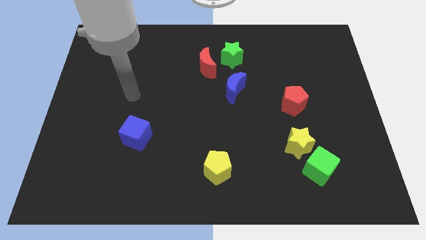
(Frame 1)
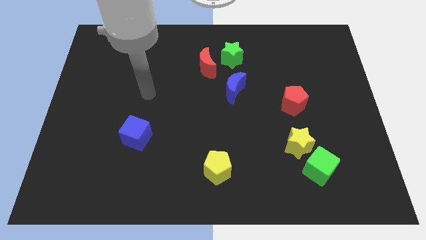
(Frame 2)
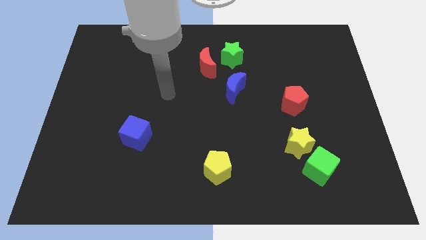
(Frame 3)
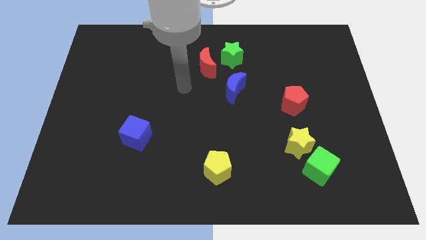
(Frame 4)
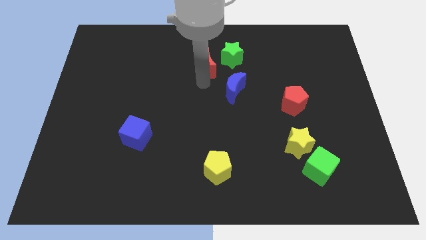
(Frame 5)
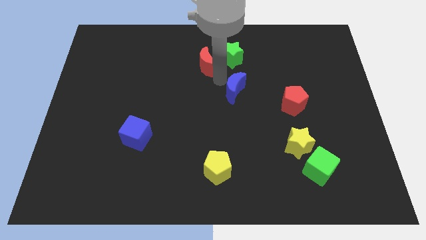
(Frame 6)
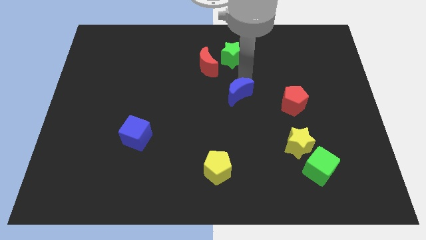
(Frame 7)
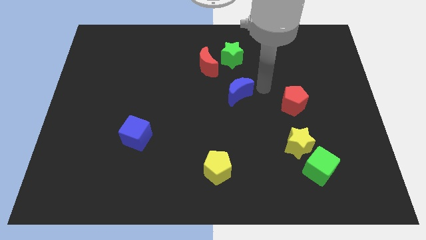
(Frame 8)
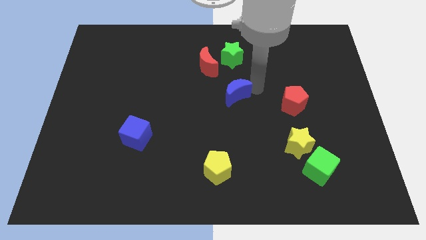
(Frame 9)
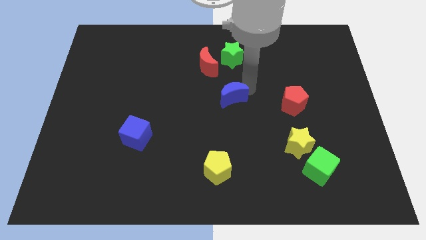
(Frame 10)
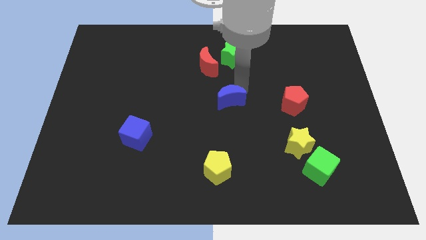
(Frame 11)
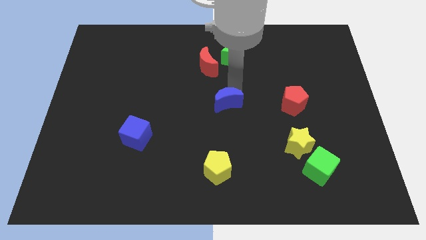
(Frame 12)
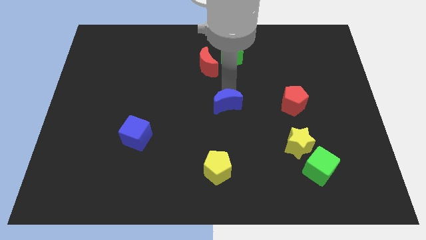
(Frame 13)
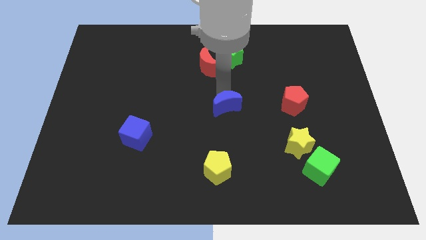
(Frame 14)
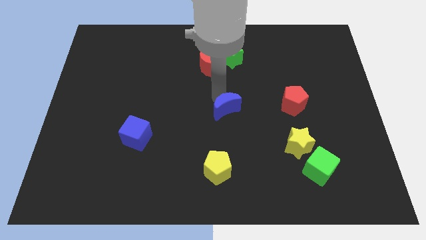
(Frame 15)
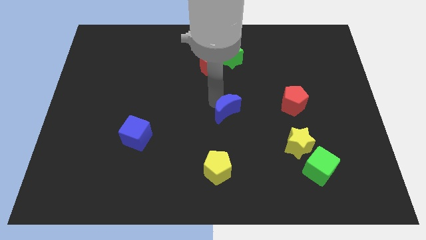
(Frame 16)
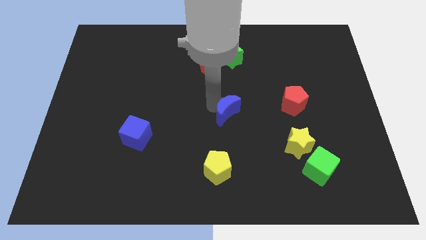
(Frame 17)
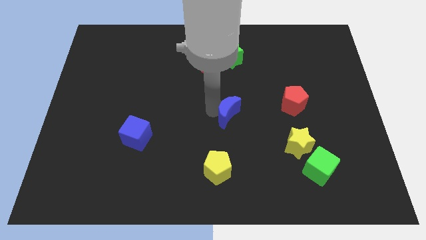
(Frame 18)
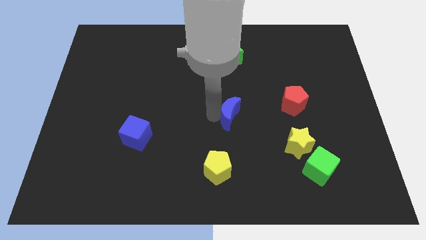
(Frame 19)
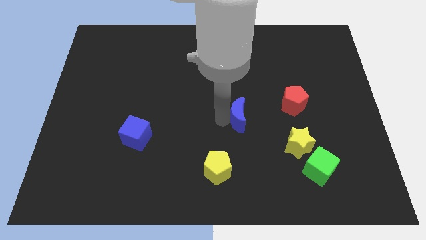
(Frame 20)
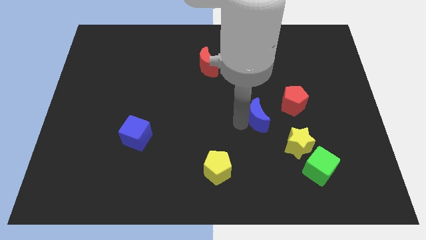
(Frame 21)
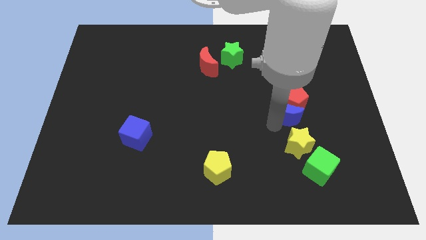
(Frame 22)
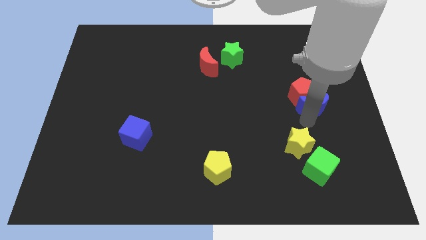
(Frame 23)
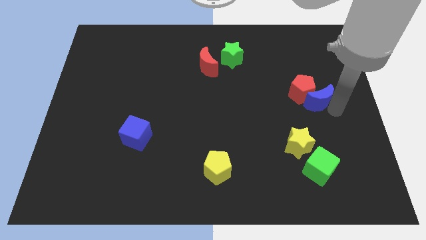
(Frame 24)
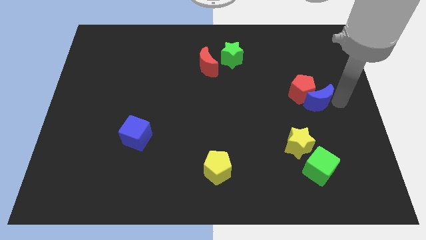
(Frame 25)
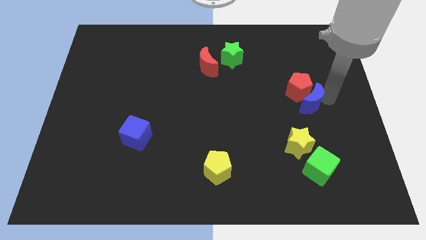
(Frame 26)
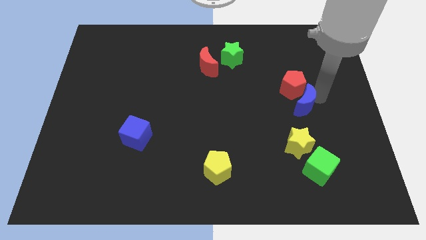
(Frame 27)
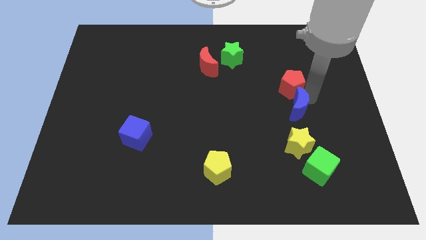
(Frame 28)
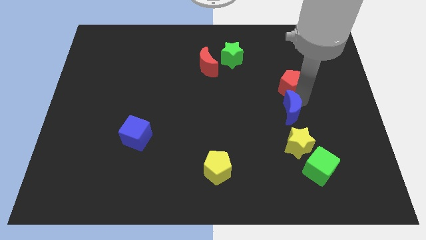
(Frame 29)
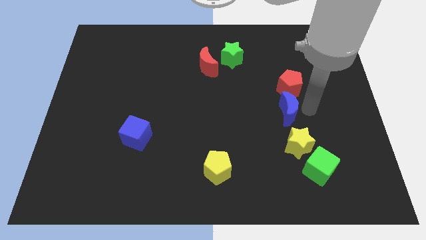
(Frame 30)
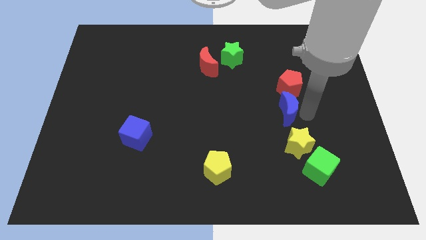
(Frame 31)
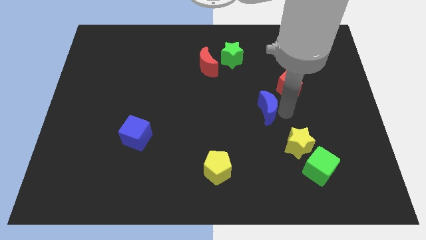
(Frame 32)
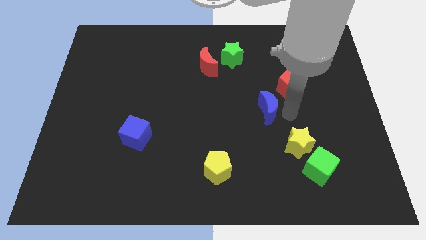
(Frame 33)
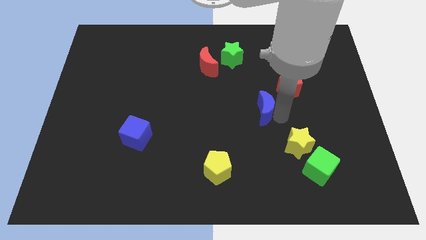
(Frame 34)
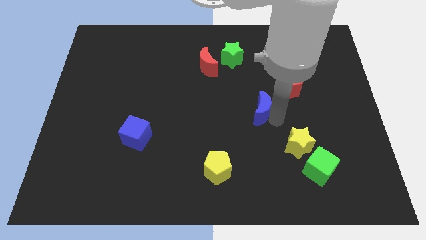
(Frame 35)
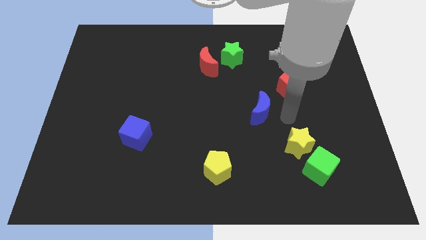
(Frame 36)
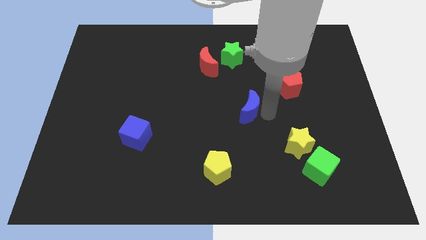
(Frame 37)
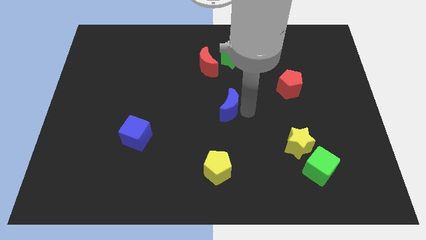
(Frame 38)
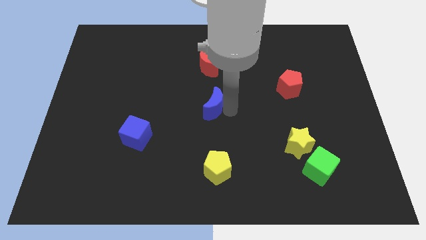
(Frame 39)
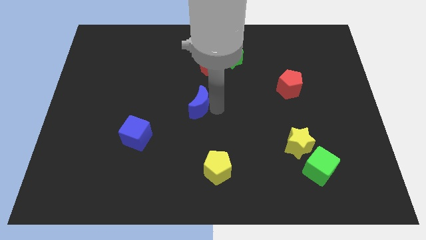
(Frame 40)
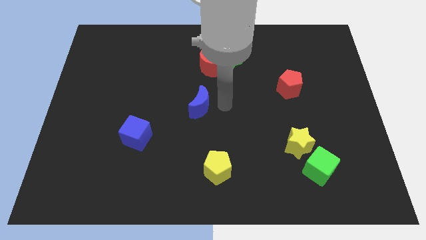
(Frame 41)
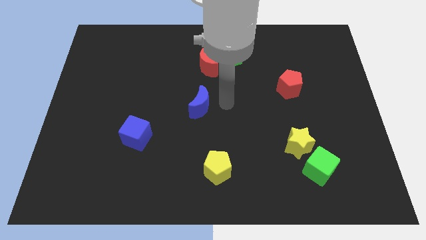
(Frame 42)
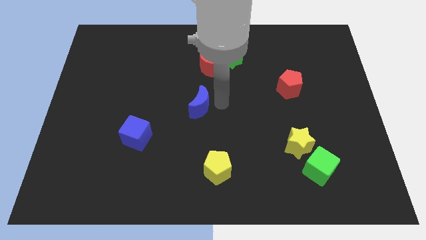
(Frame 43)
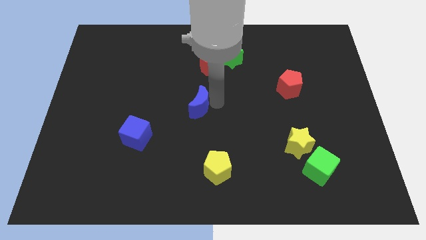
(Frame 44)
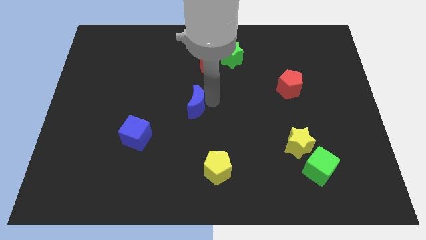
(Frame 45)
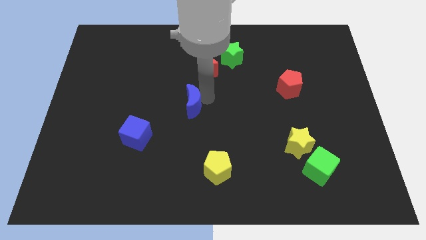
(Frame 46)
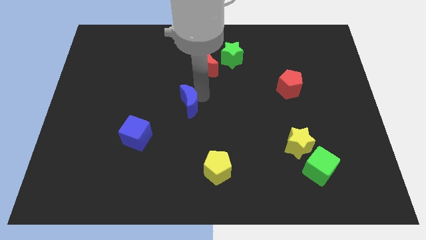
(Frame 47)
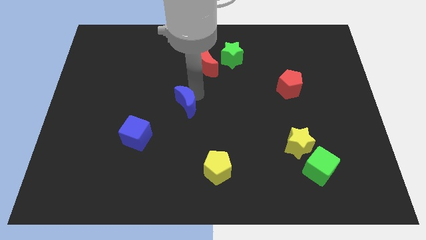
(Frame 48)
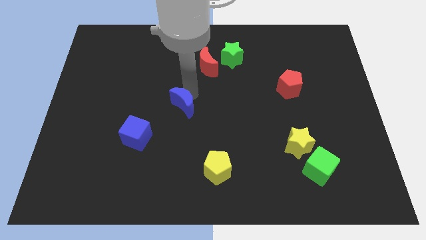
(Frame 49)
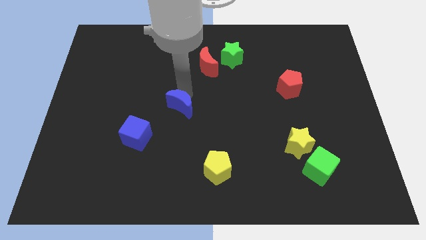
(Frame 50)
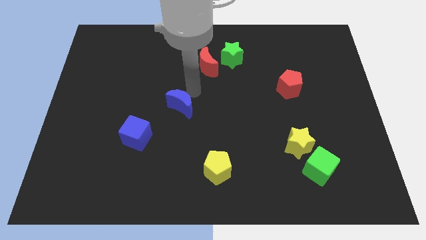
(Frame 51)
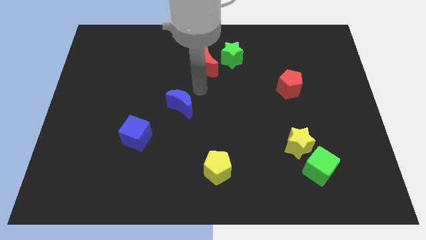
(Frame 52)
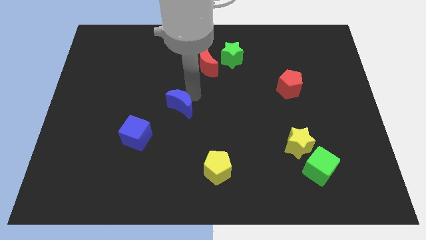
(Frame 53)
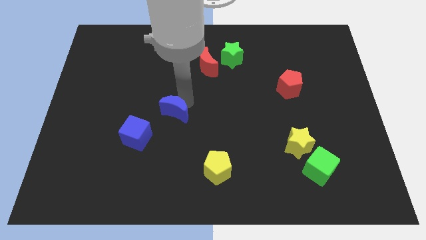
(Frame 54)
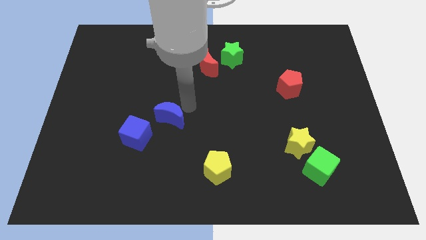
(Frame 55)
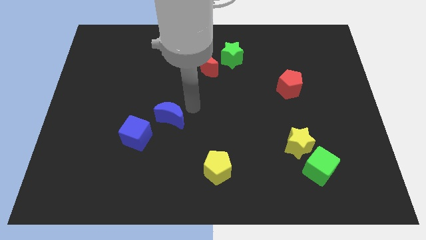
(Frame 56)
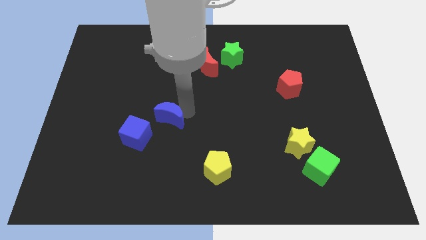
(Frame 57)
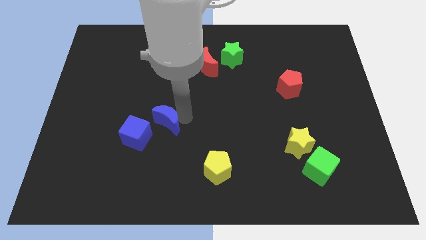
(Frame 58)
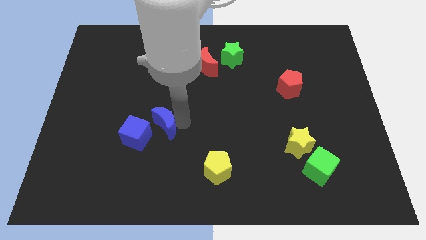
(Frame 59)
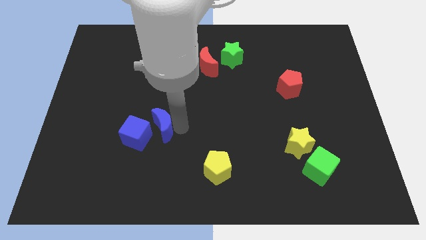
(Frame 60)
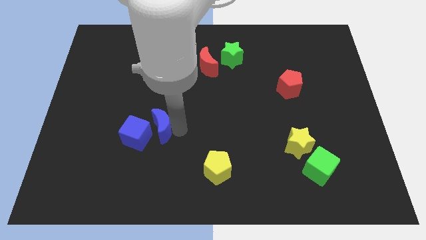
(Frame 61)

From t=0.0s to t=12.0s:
push the blue moon next to the blue cube

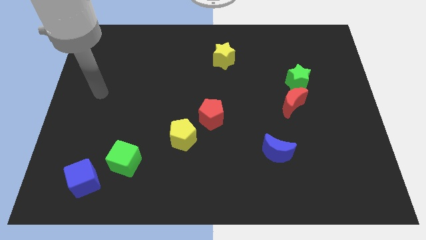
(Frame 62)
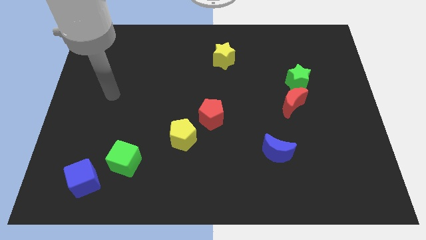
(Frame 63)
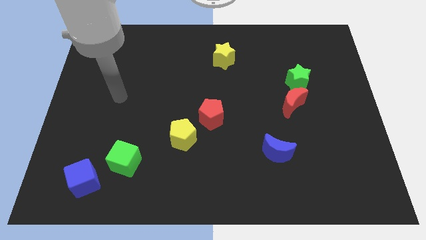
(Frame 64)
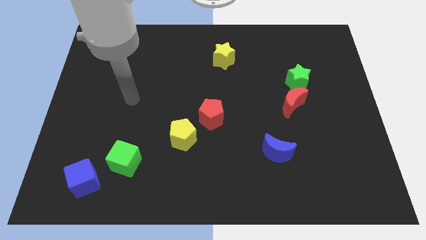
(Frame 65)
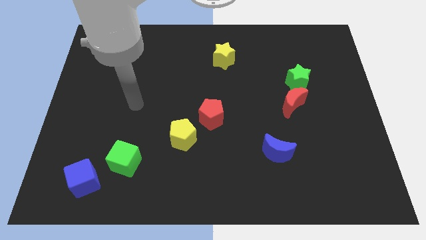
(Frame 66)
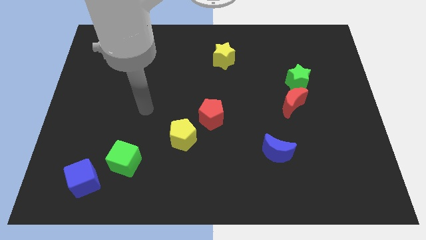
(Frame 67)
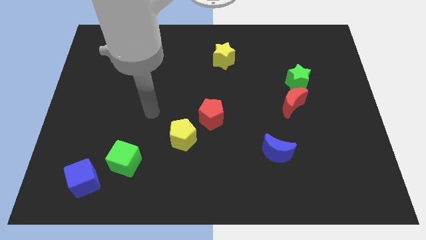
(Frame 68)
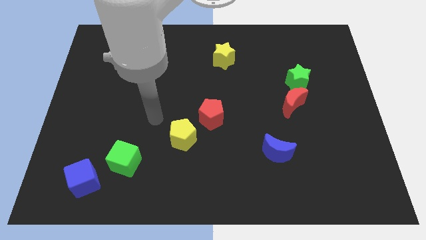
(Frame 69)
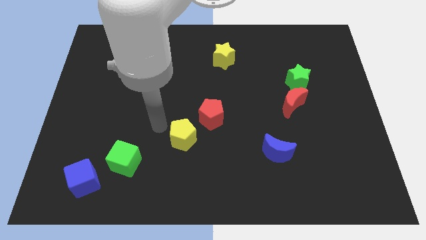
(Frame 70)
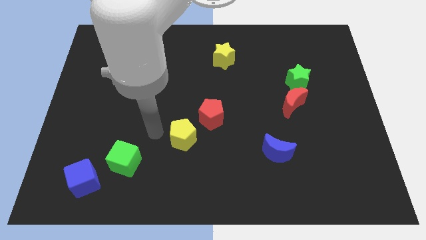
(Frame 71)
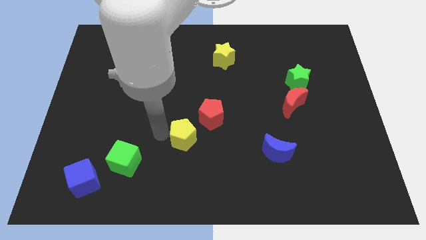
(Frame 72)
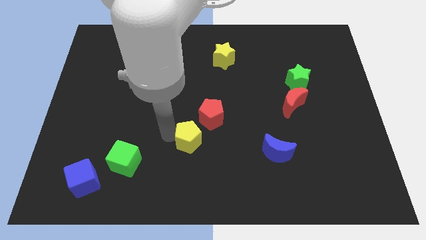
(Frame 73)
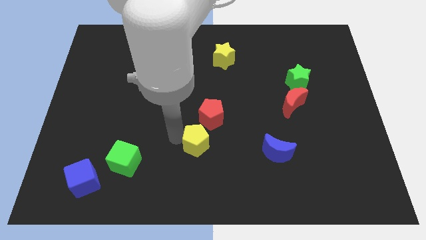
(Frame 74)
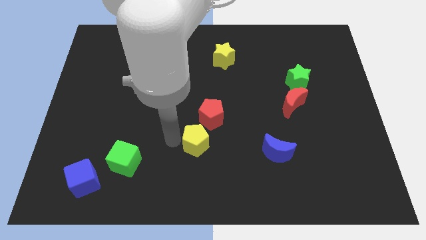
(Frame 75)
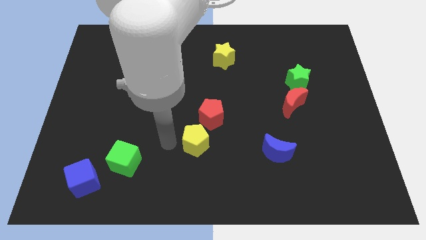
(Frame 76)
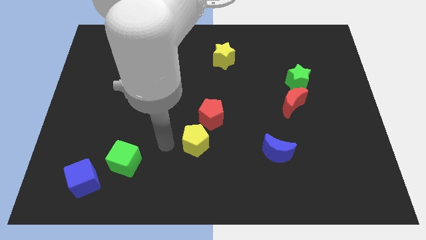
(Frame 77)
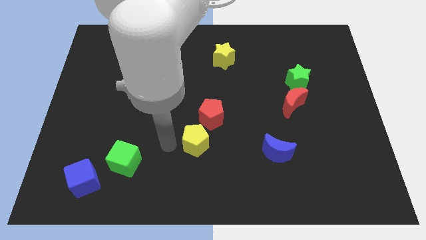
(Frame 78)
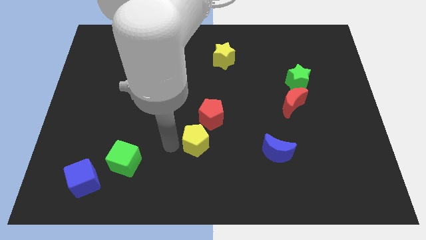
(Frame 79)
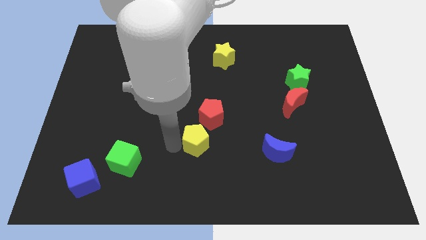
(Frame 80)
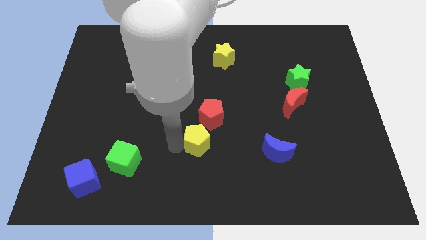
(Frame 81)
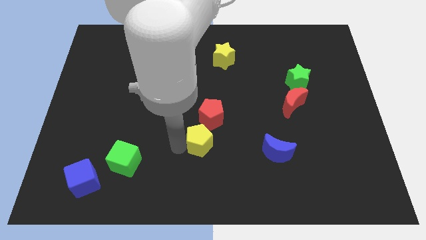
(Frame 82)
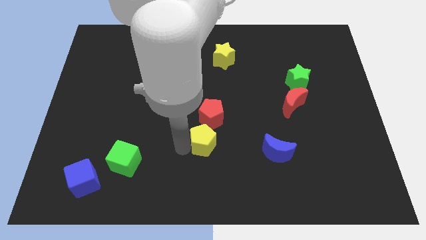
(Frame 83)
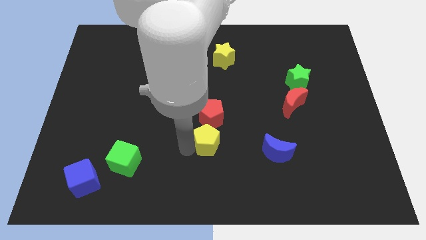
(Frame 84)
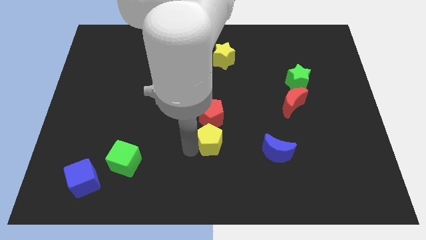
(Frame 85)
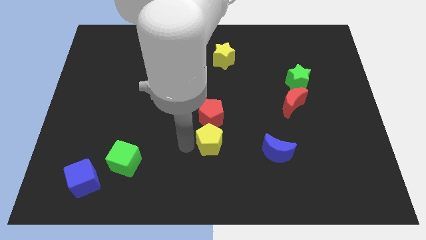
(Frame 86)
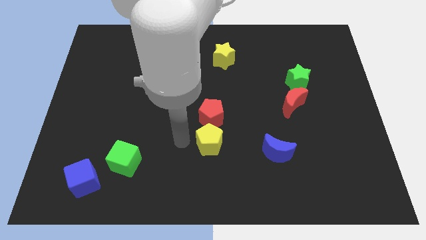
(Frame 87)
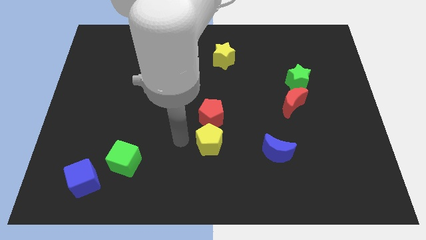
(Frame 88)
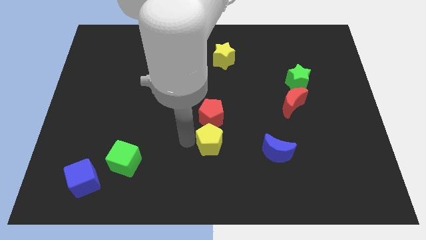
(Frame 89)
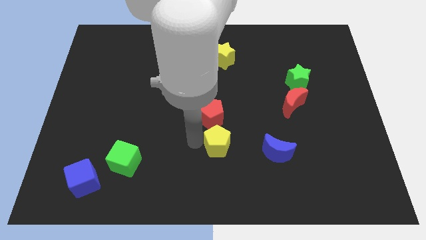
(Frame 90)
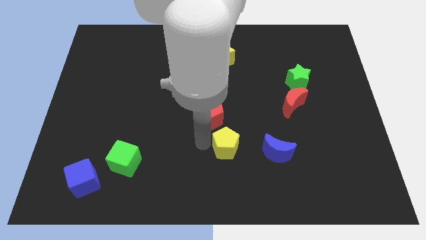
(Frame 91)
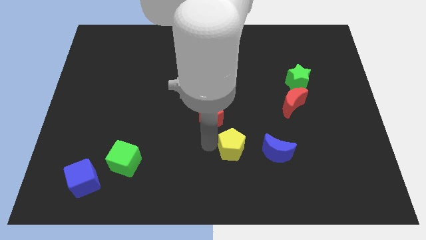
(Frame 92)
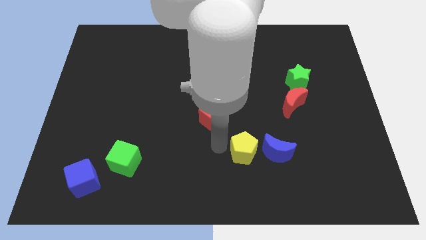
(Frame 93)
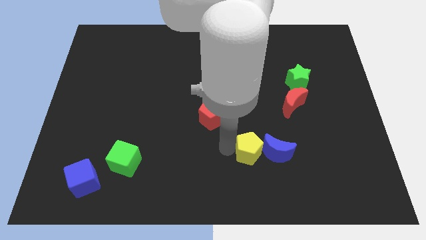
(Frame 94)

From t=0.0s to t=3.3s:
move the yellow pentagon towards the blue moon
